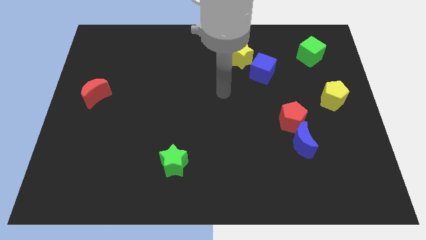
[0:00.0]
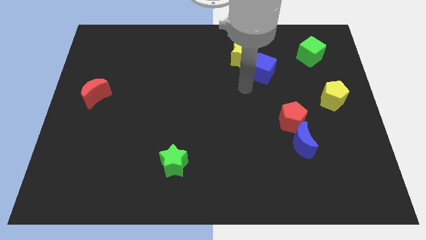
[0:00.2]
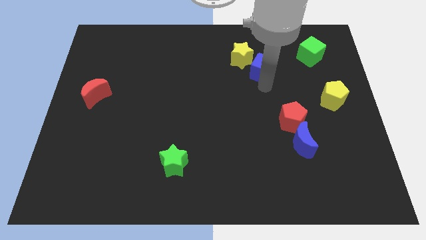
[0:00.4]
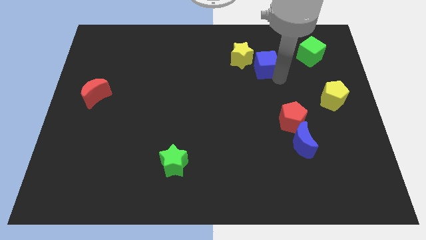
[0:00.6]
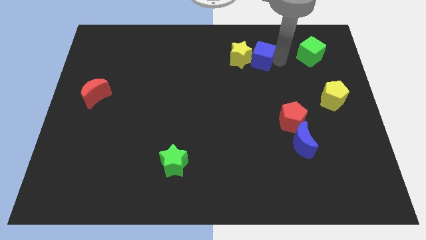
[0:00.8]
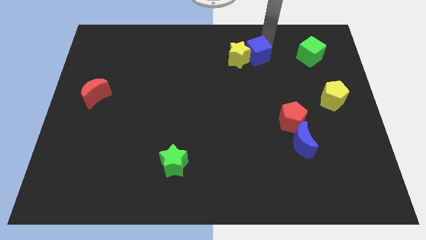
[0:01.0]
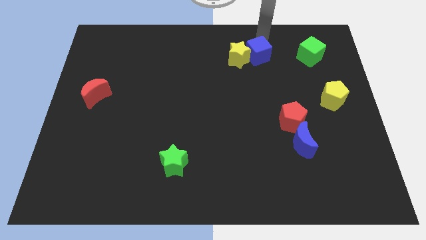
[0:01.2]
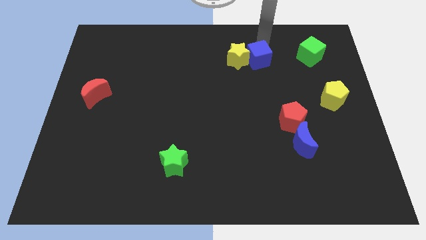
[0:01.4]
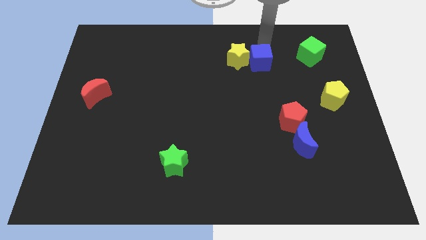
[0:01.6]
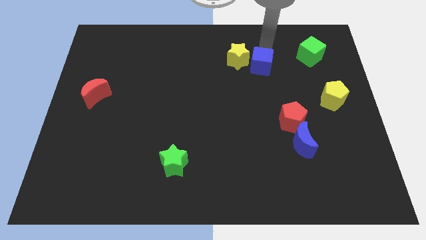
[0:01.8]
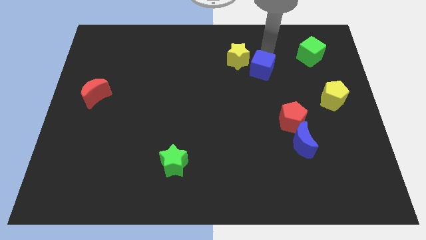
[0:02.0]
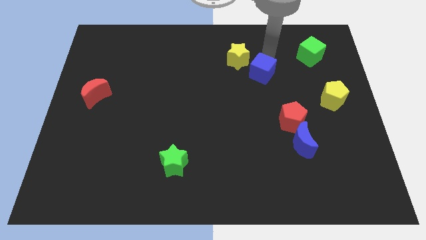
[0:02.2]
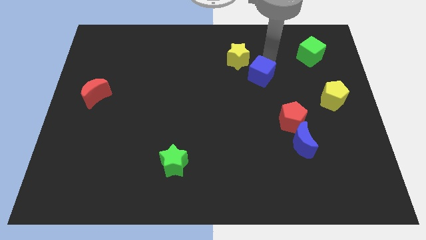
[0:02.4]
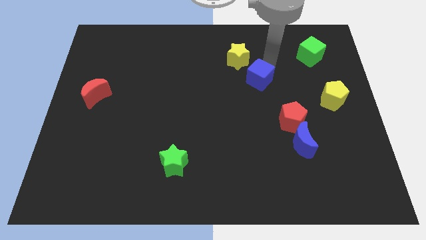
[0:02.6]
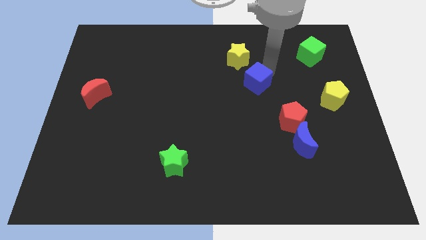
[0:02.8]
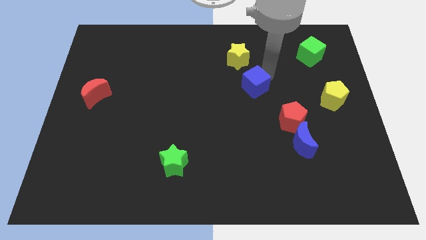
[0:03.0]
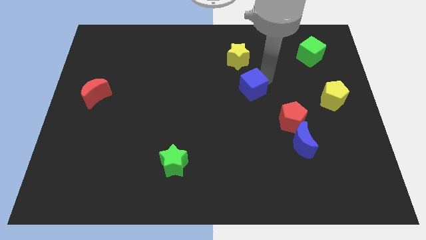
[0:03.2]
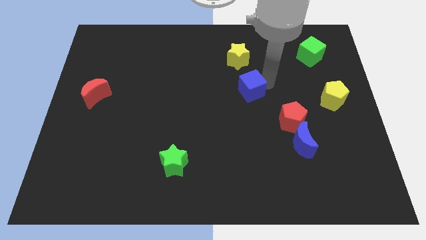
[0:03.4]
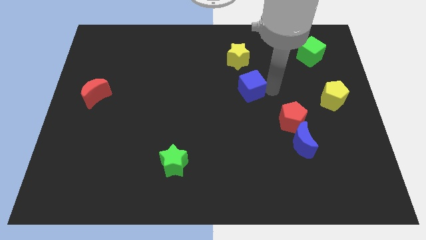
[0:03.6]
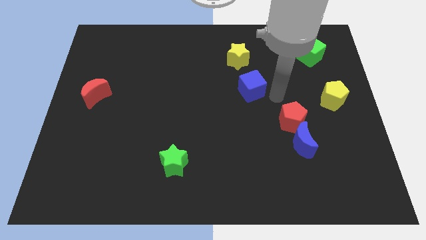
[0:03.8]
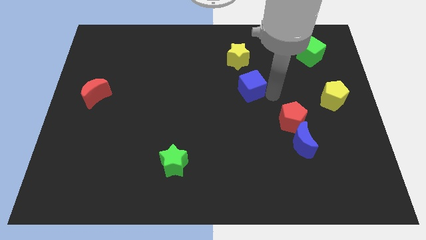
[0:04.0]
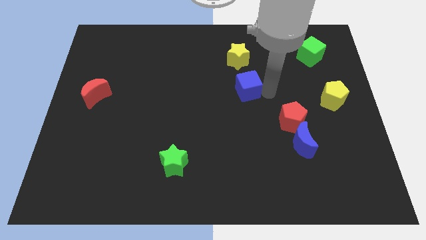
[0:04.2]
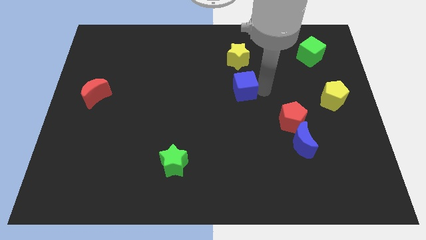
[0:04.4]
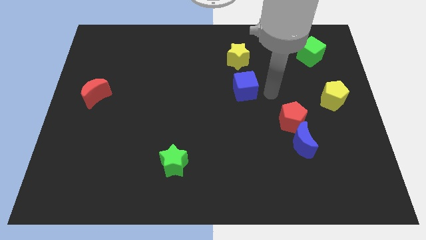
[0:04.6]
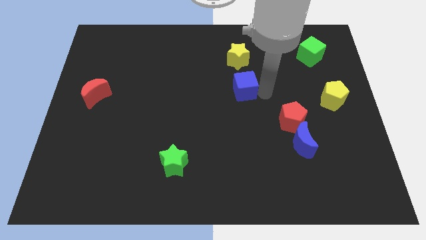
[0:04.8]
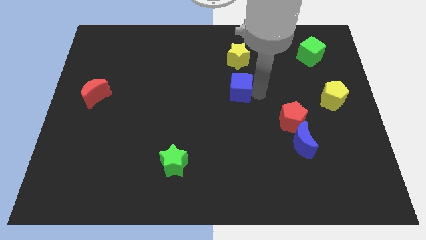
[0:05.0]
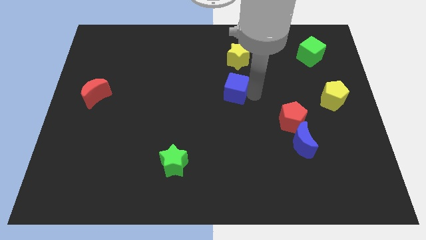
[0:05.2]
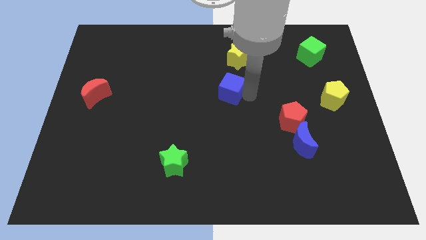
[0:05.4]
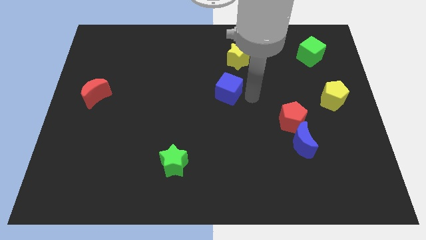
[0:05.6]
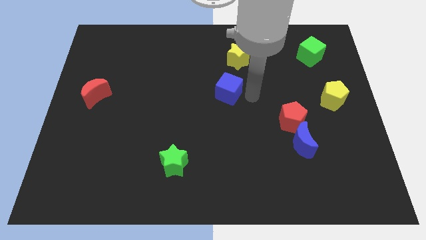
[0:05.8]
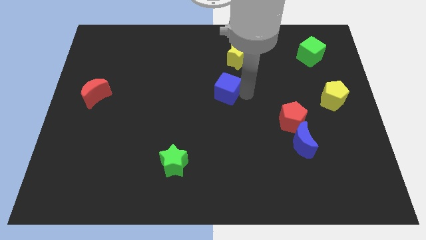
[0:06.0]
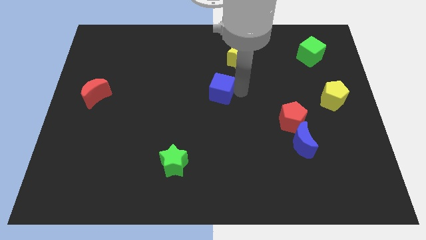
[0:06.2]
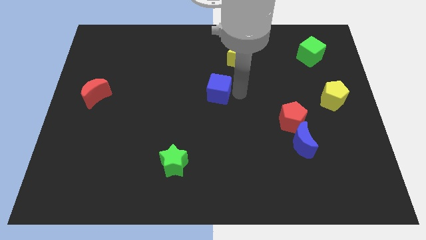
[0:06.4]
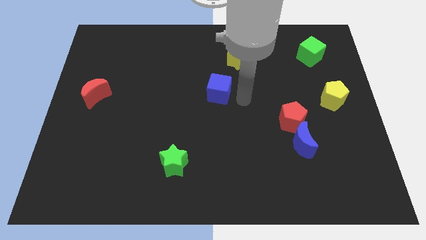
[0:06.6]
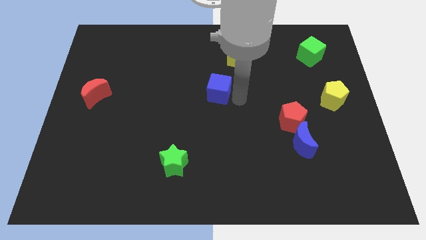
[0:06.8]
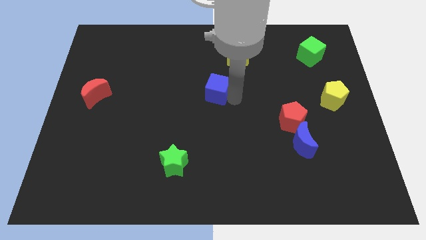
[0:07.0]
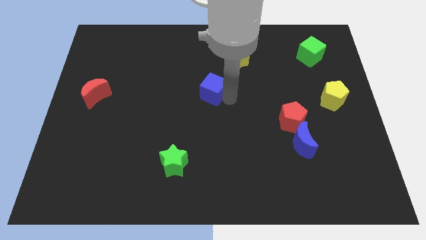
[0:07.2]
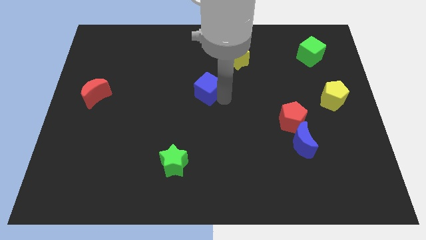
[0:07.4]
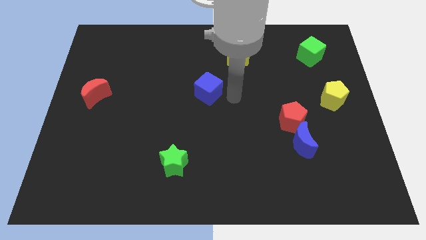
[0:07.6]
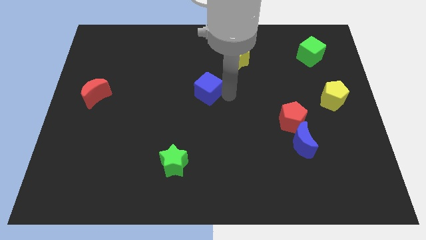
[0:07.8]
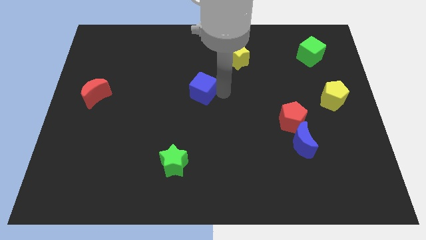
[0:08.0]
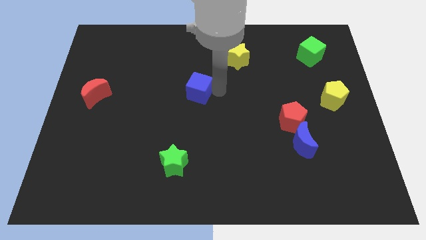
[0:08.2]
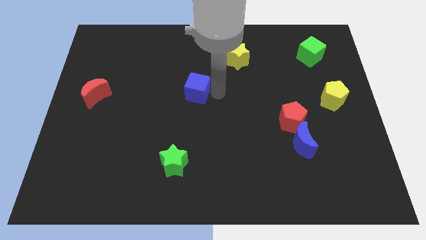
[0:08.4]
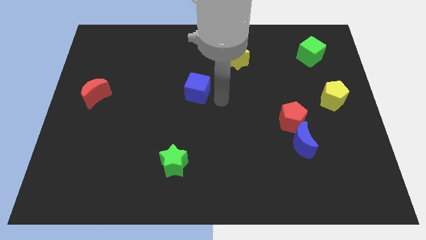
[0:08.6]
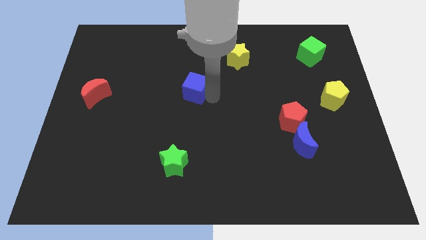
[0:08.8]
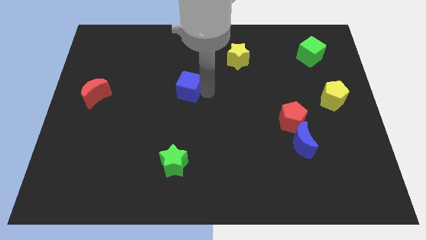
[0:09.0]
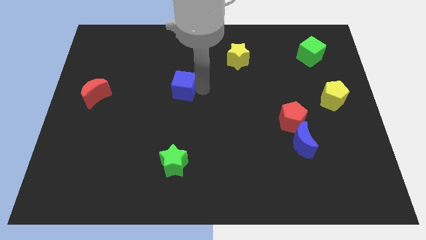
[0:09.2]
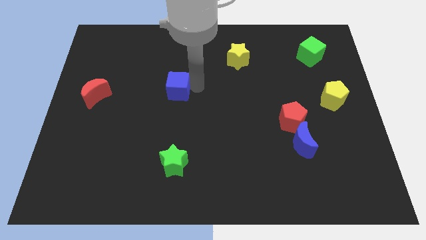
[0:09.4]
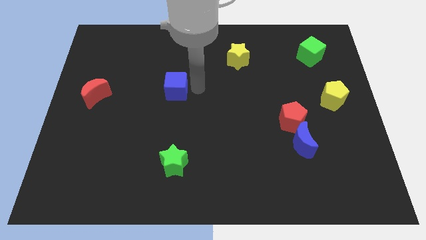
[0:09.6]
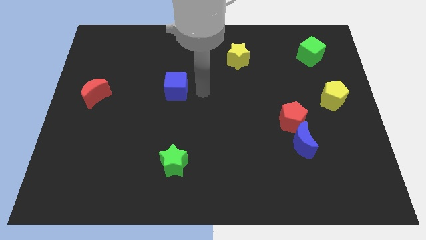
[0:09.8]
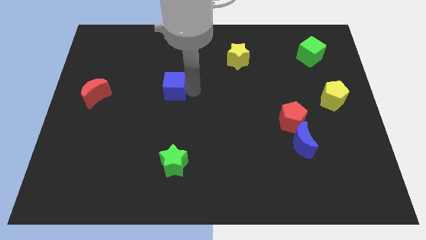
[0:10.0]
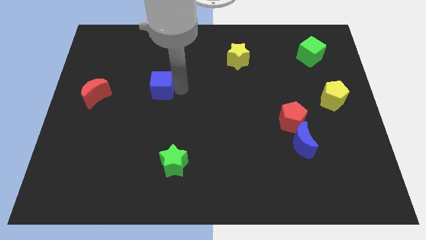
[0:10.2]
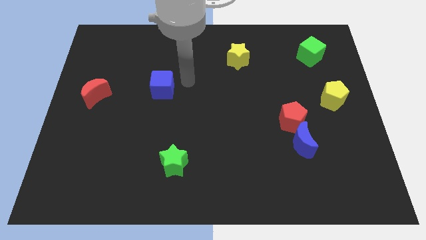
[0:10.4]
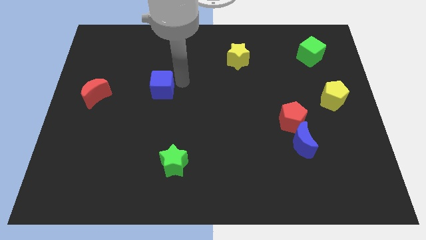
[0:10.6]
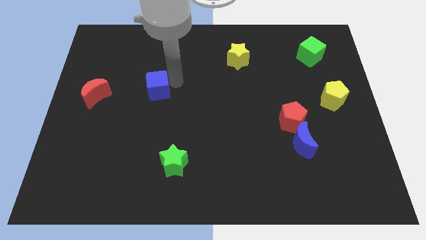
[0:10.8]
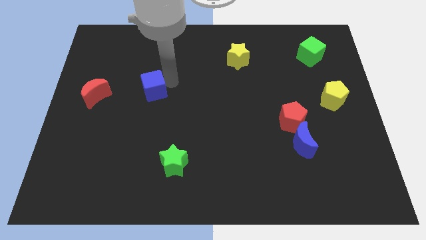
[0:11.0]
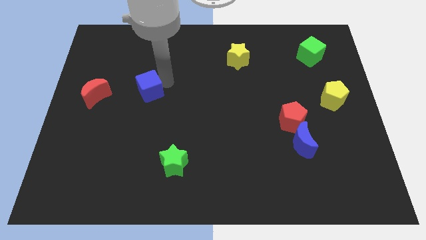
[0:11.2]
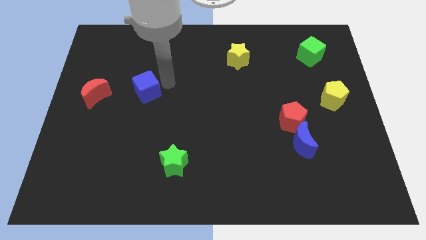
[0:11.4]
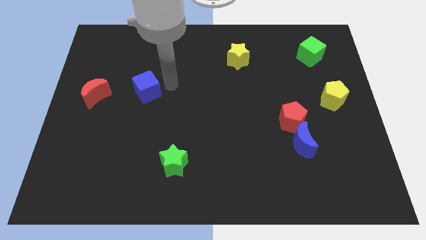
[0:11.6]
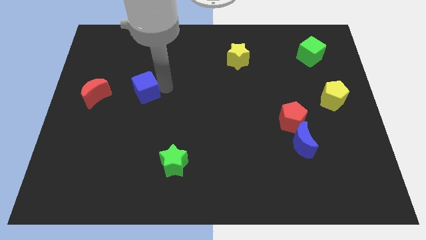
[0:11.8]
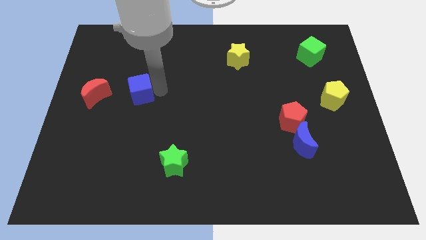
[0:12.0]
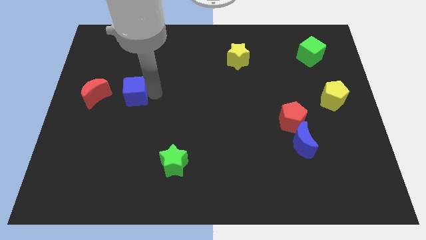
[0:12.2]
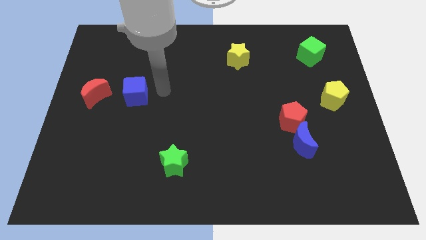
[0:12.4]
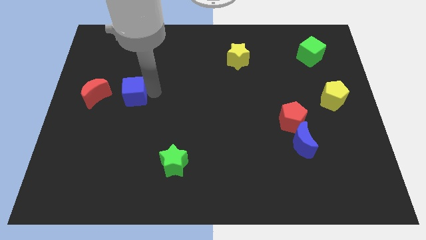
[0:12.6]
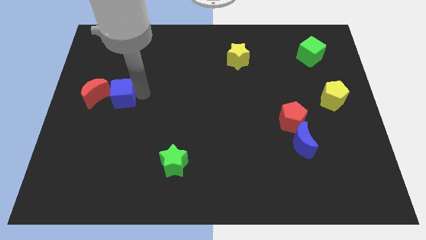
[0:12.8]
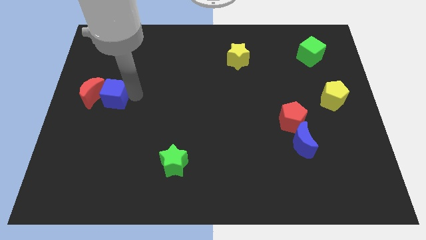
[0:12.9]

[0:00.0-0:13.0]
push the blue cube to the red moon

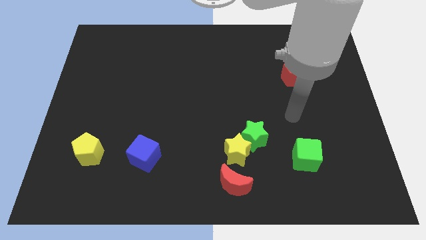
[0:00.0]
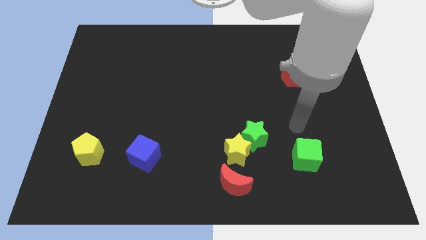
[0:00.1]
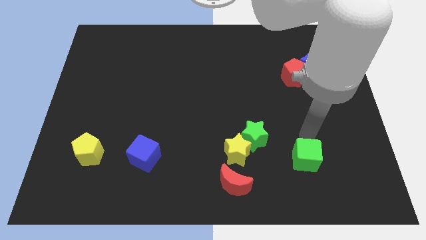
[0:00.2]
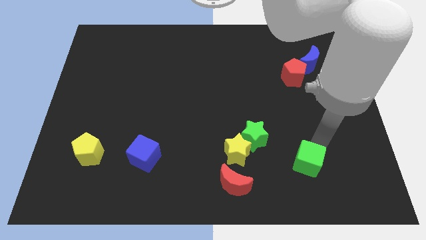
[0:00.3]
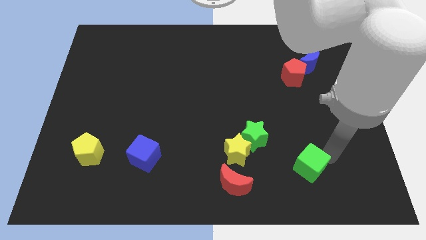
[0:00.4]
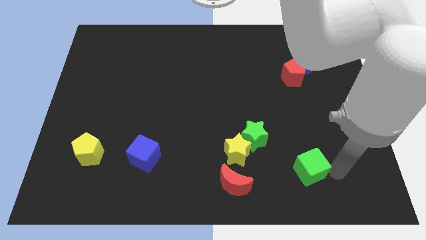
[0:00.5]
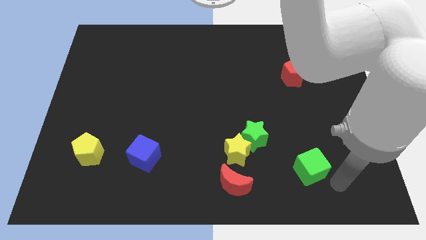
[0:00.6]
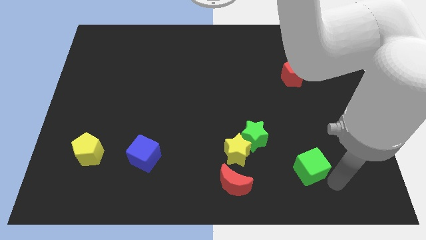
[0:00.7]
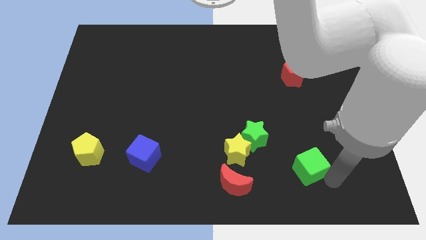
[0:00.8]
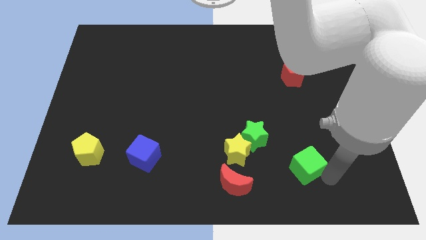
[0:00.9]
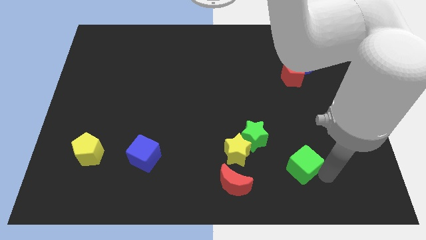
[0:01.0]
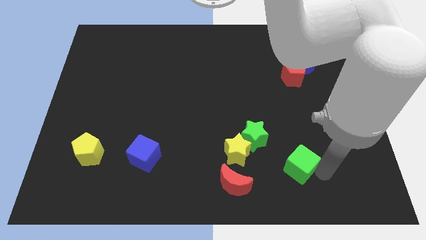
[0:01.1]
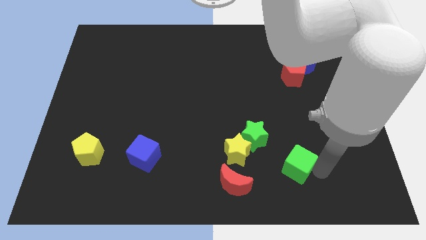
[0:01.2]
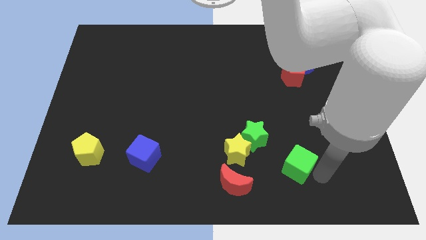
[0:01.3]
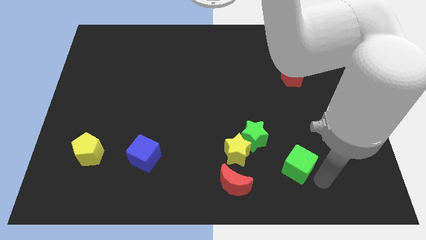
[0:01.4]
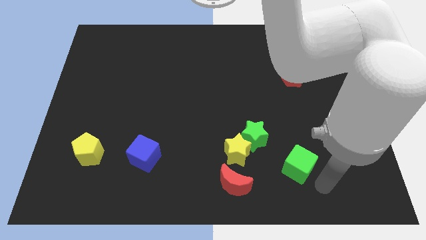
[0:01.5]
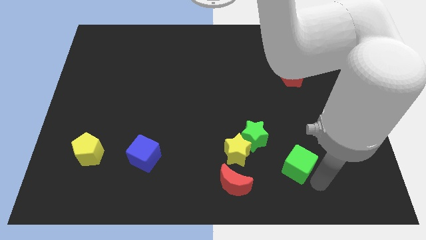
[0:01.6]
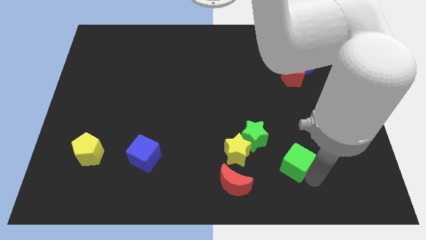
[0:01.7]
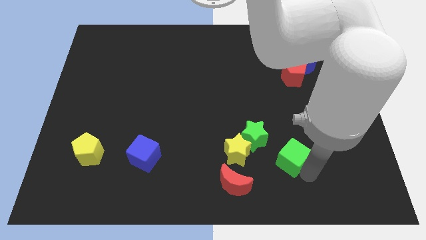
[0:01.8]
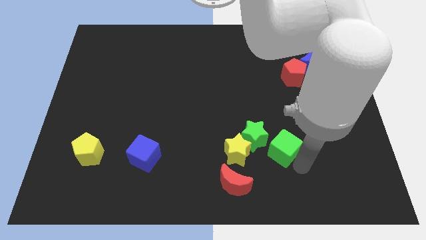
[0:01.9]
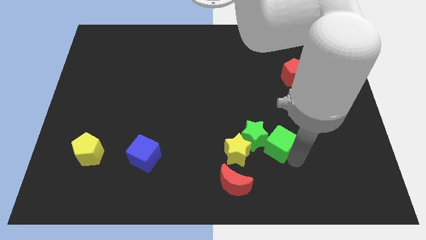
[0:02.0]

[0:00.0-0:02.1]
push the green cube towards the green star
